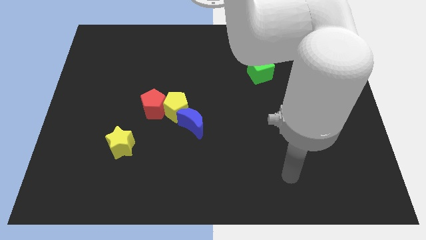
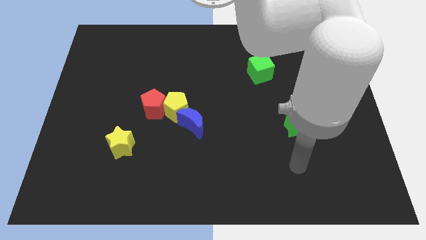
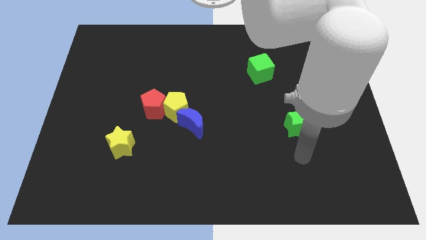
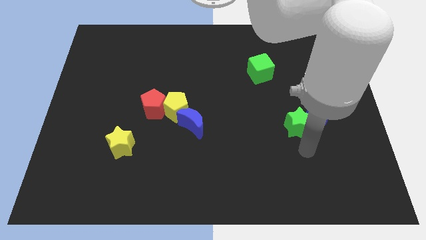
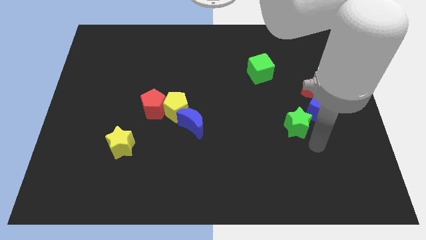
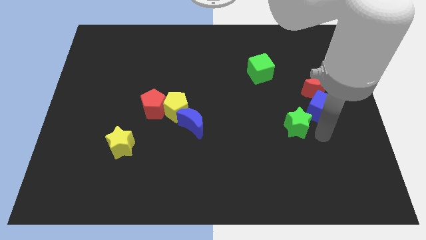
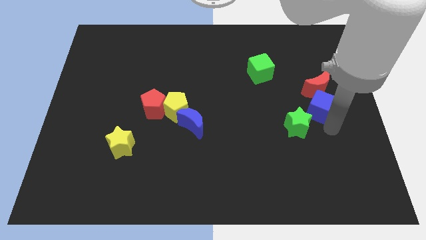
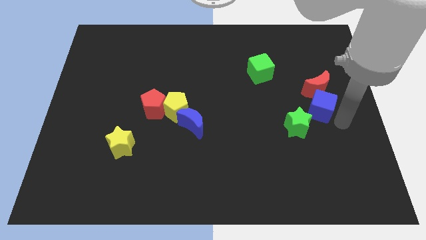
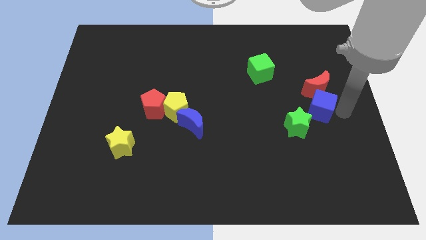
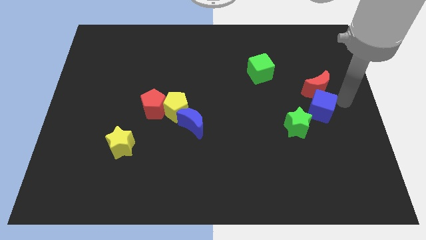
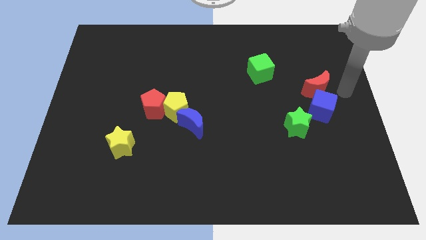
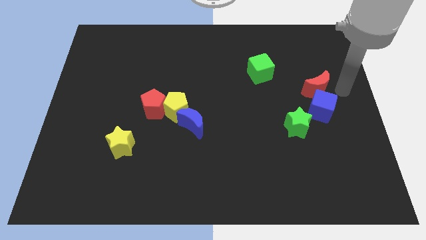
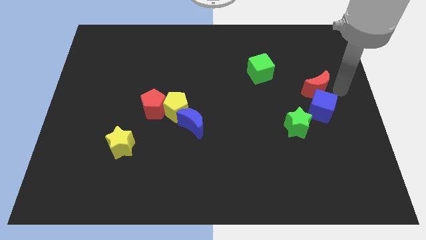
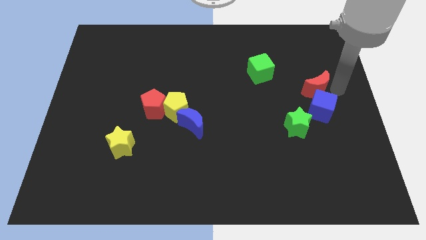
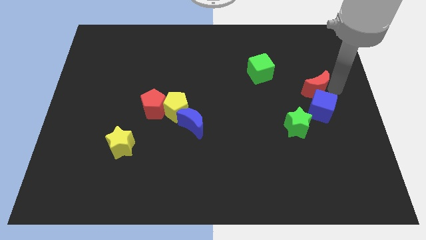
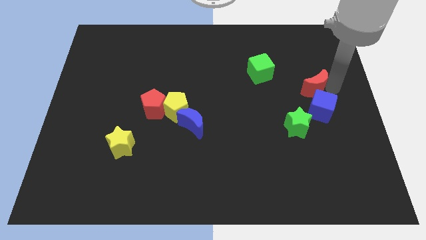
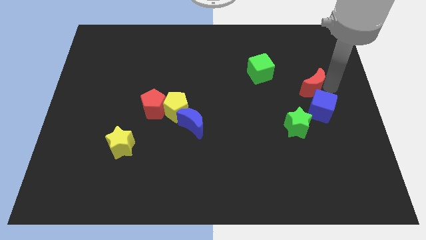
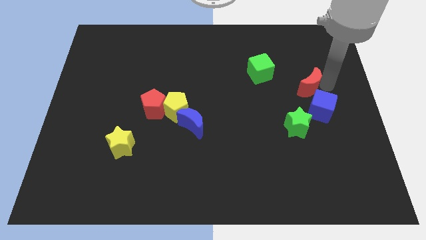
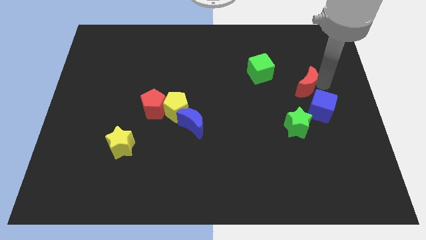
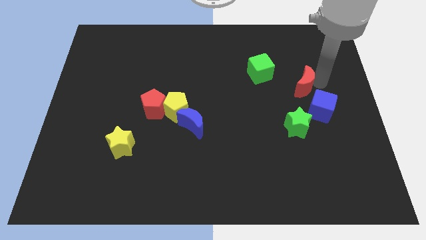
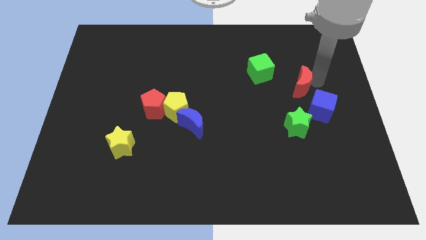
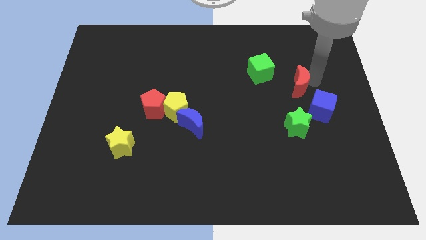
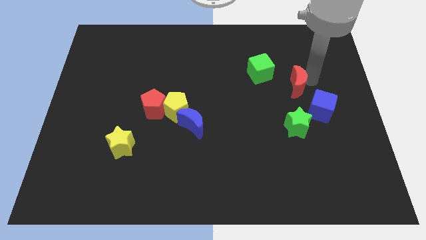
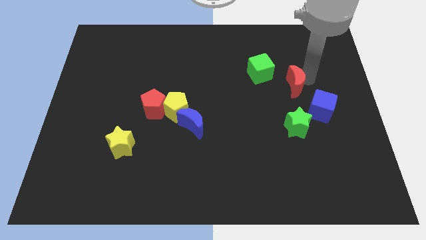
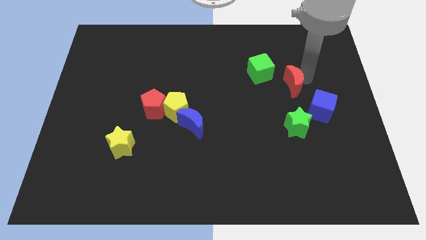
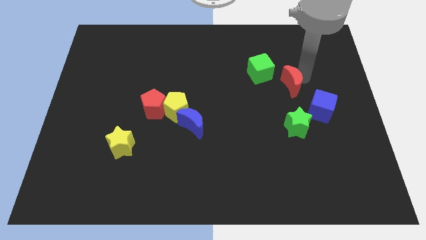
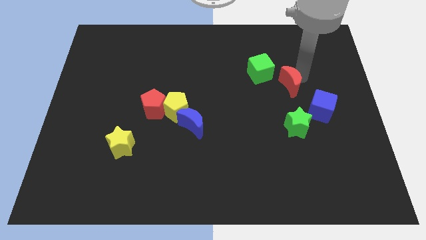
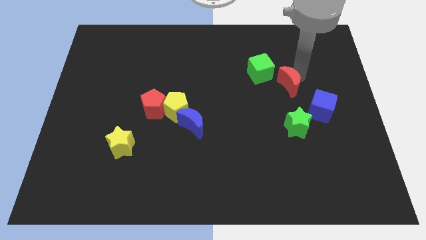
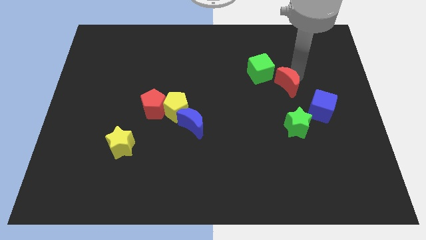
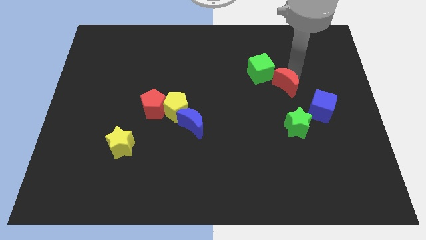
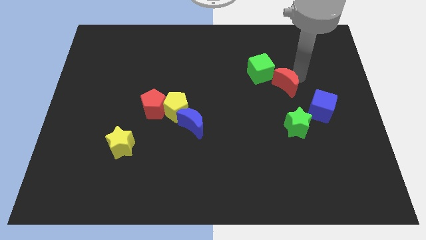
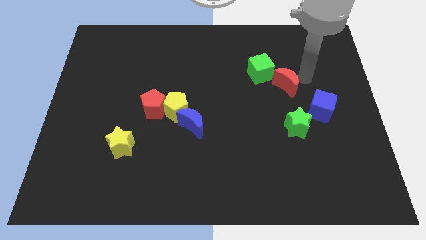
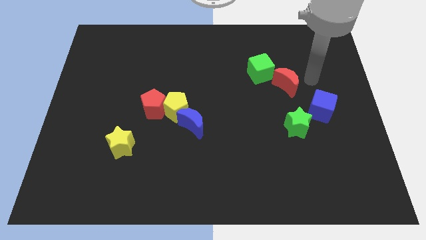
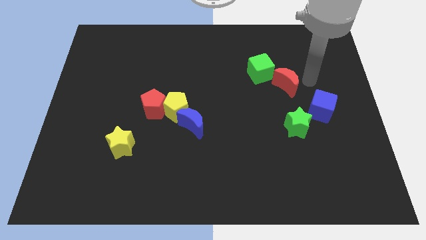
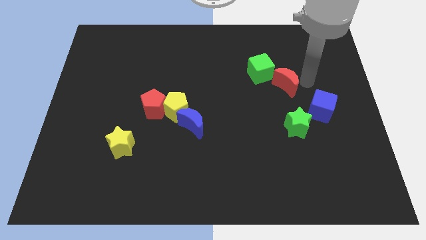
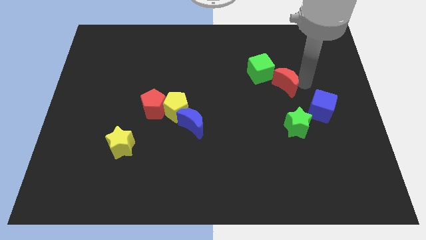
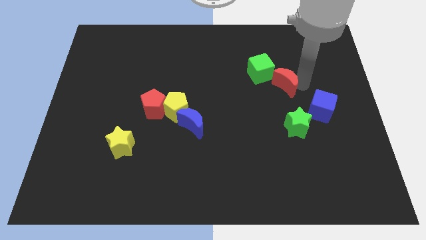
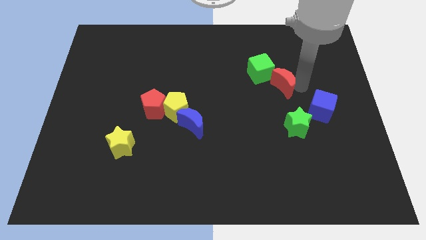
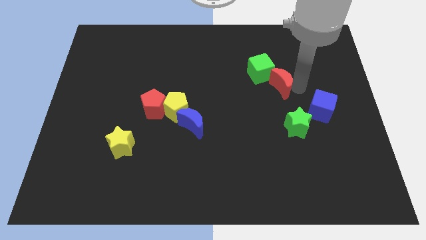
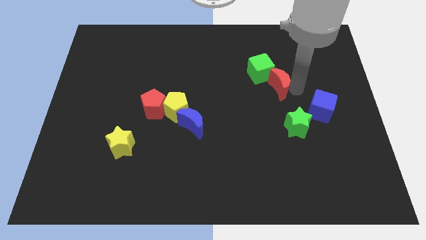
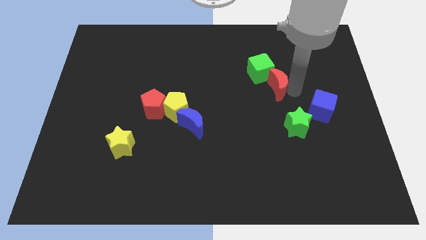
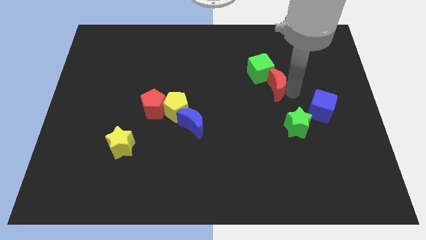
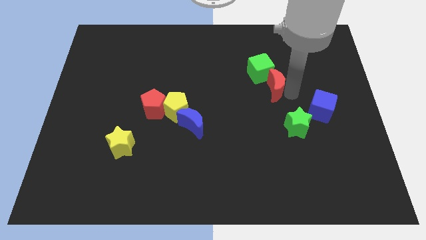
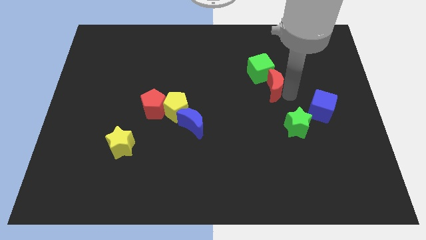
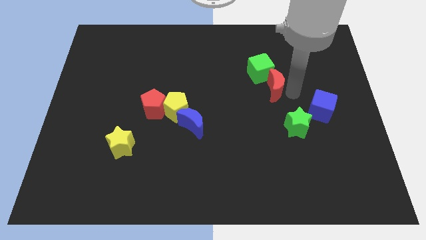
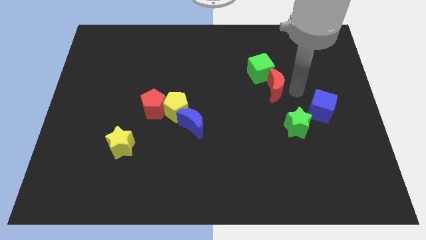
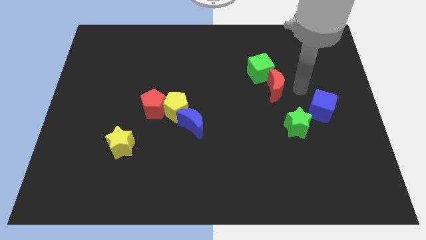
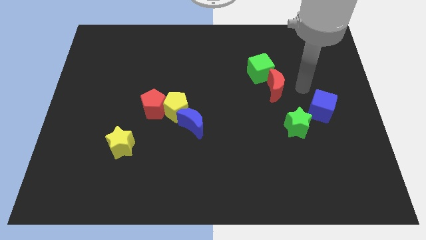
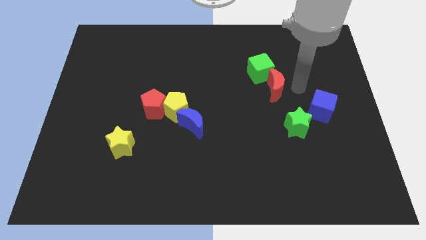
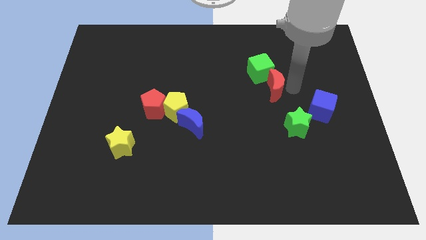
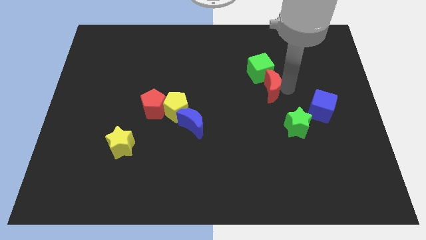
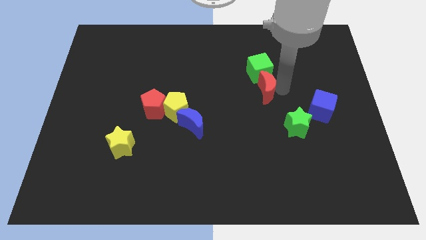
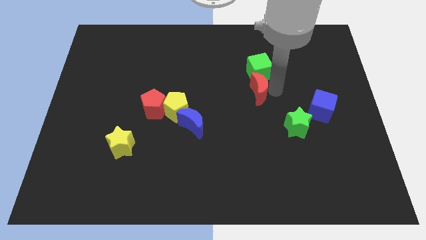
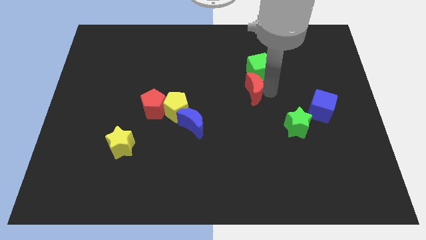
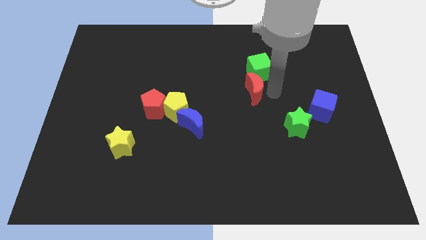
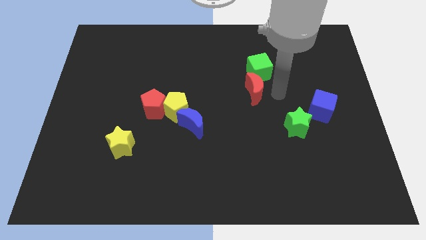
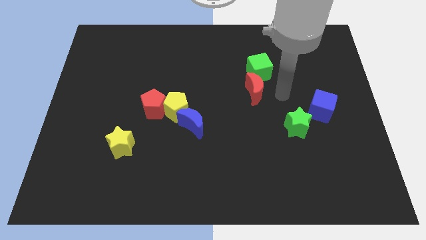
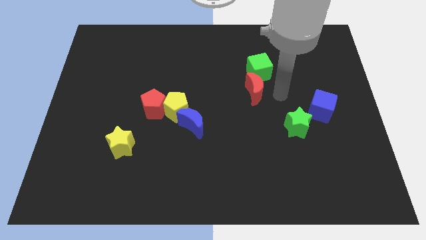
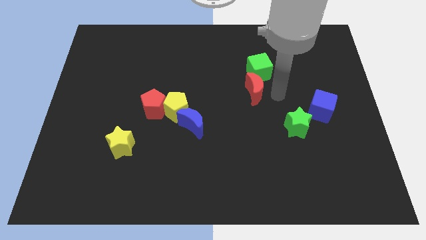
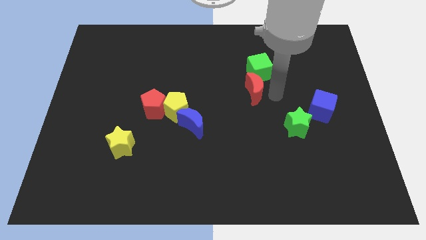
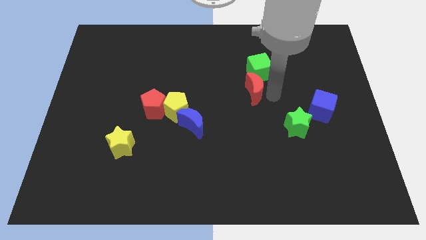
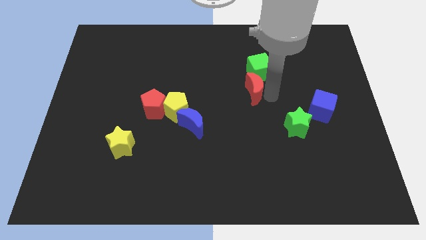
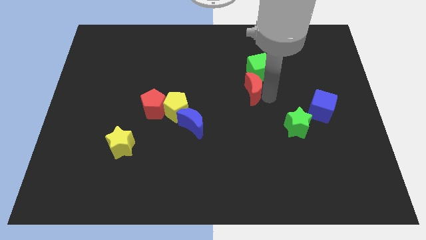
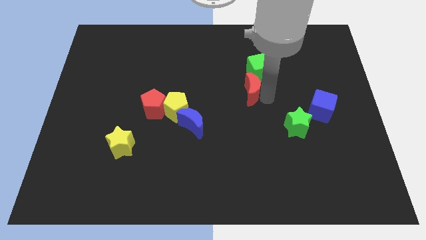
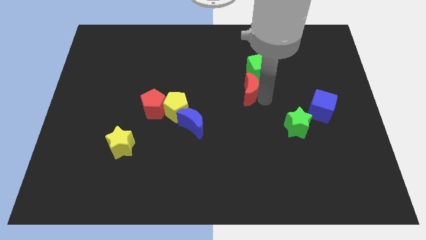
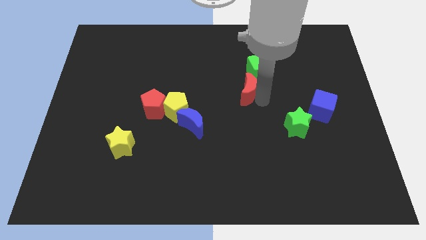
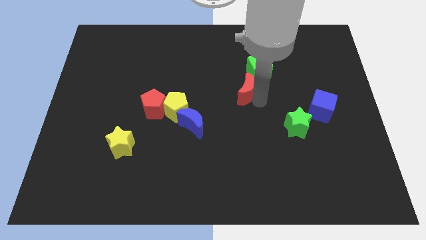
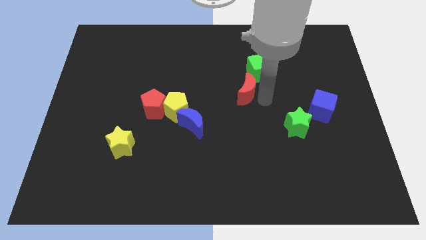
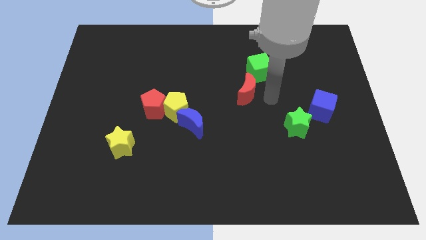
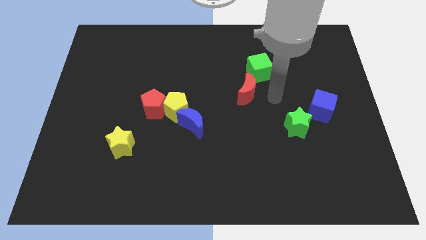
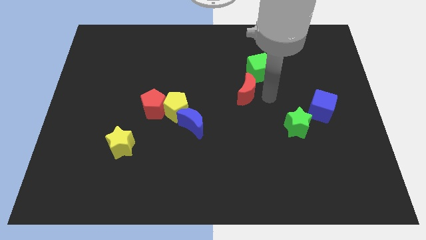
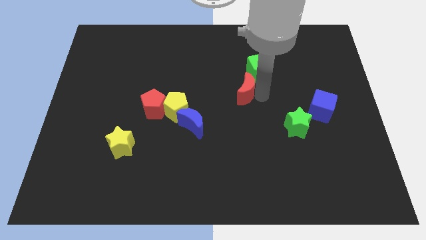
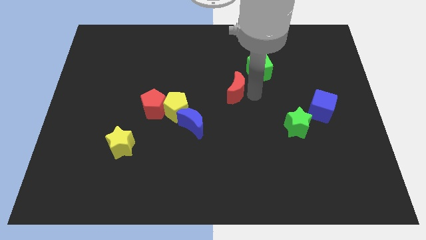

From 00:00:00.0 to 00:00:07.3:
move the red moon left

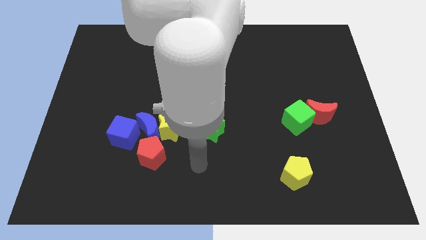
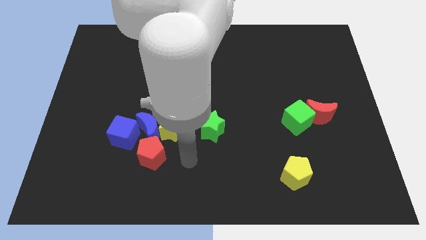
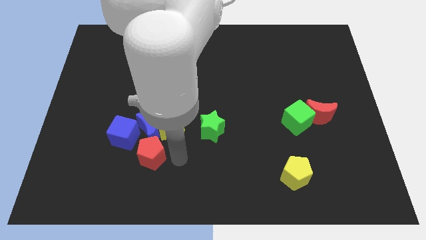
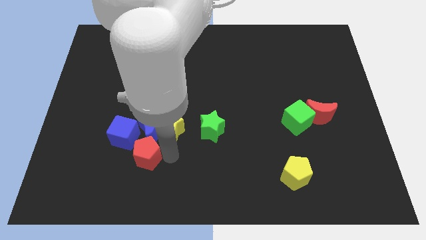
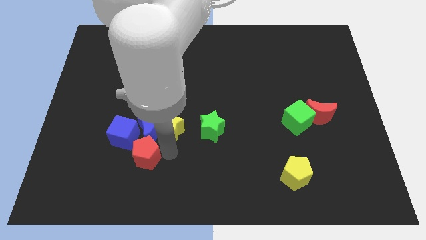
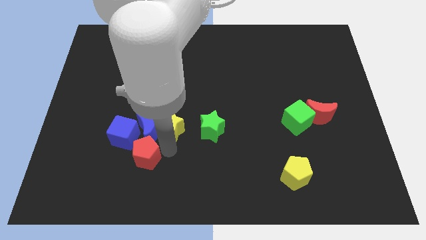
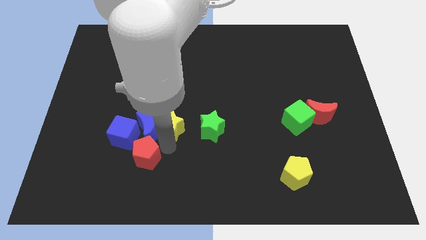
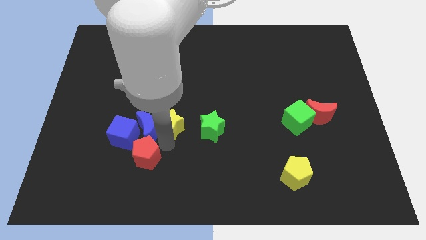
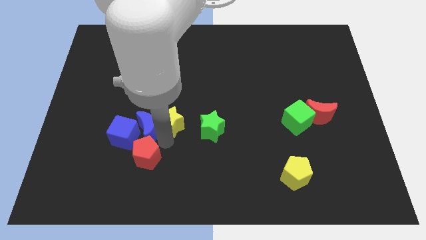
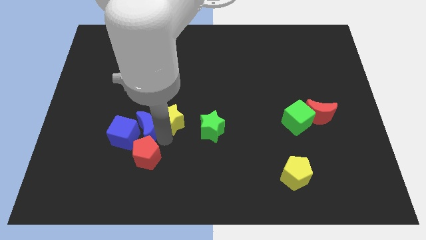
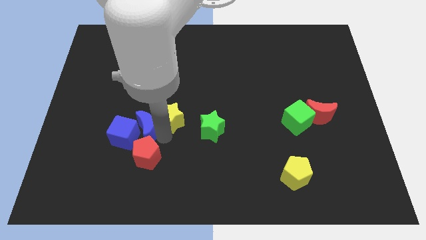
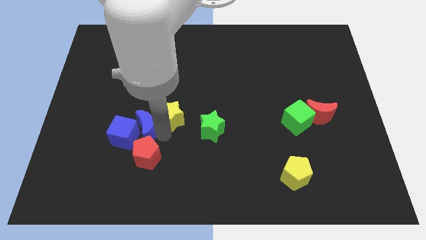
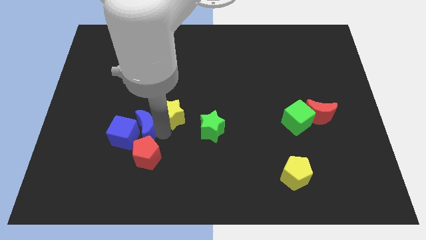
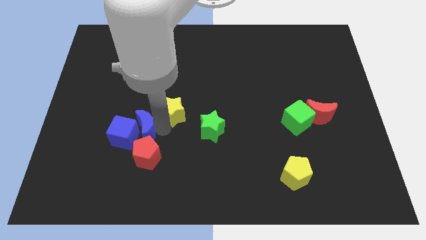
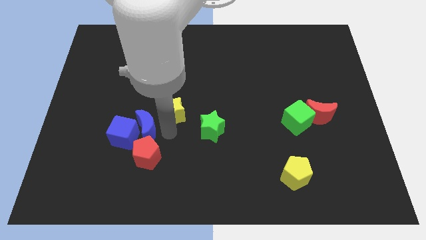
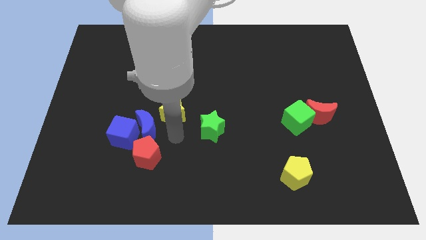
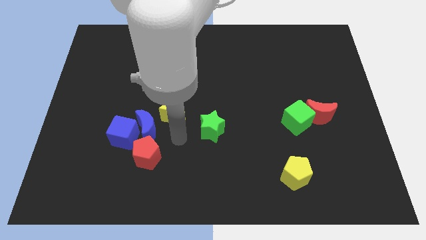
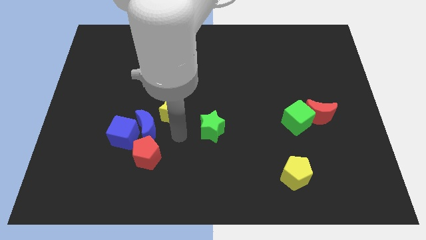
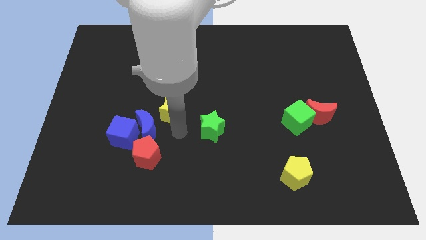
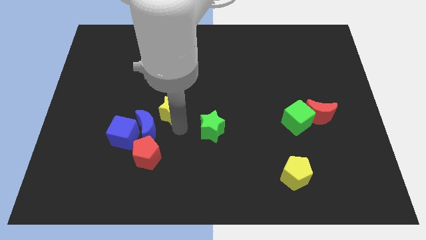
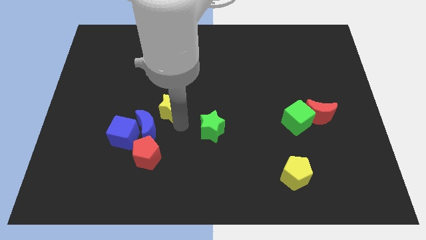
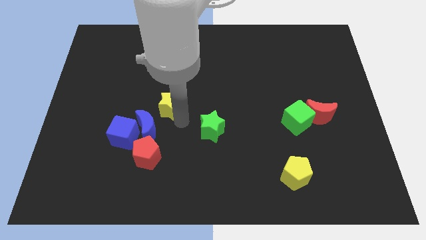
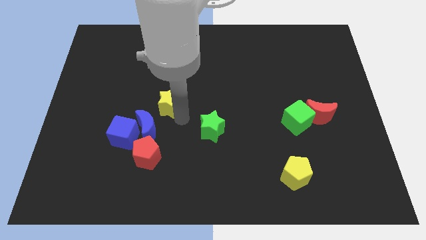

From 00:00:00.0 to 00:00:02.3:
push the yellow star up slightly
